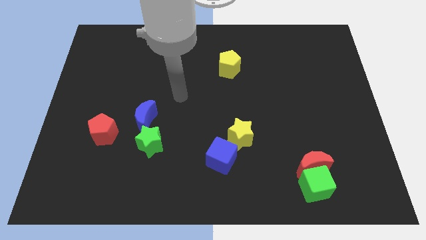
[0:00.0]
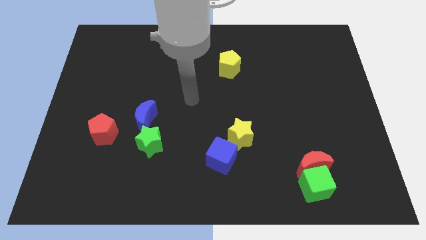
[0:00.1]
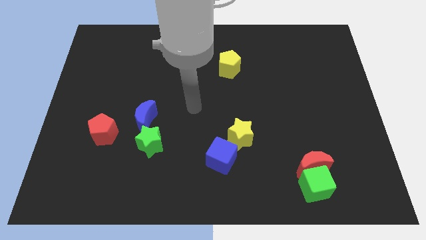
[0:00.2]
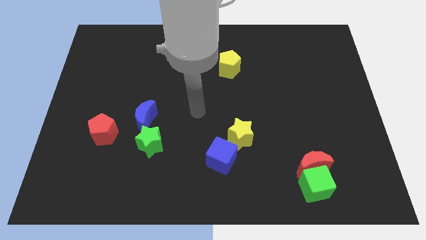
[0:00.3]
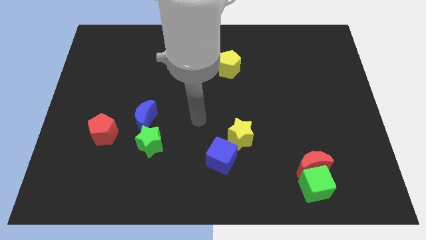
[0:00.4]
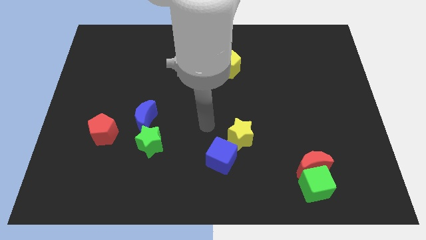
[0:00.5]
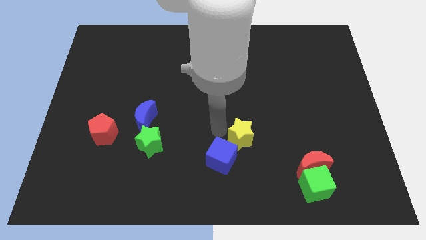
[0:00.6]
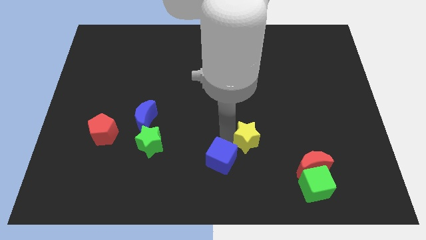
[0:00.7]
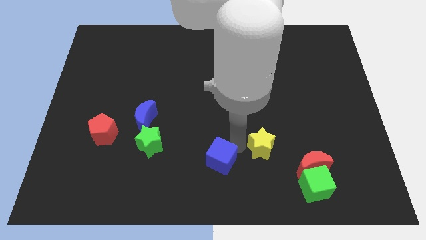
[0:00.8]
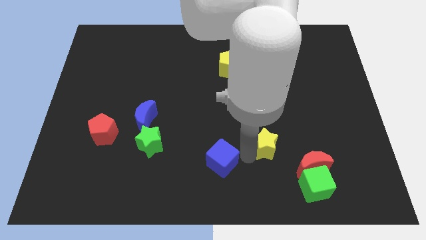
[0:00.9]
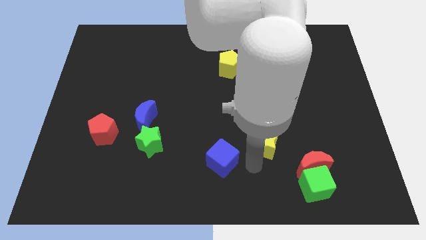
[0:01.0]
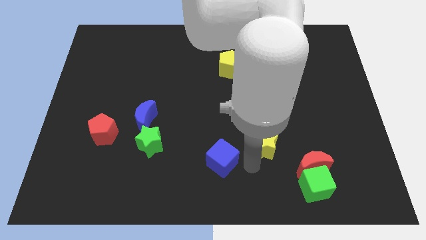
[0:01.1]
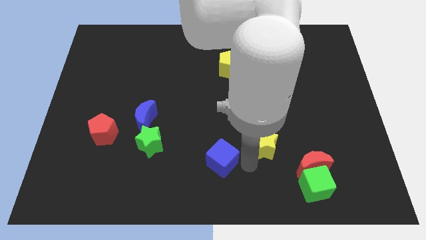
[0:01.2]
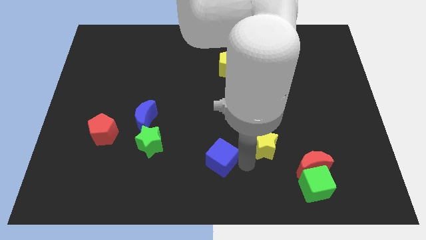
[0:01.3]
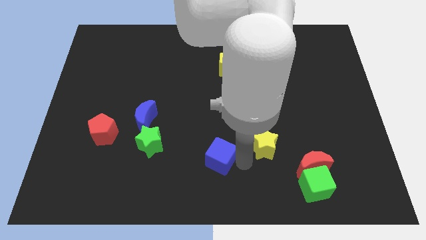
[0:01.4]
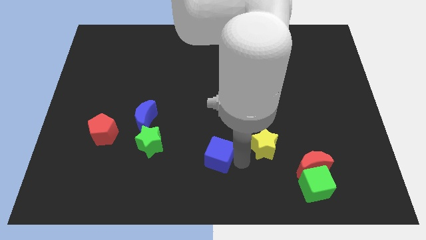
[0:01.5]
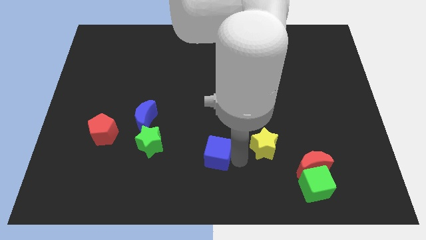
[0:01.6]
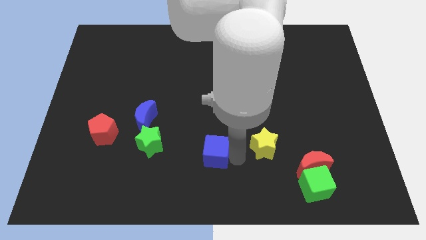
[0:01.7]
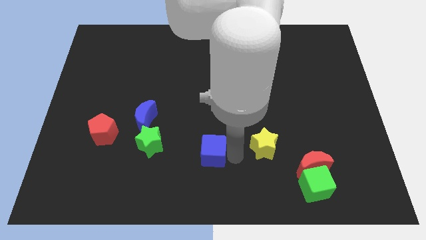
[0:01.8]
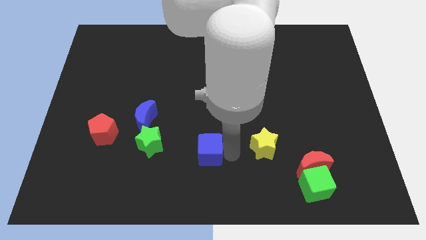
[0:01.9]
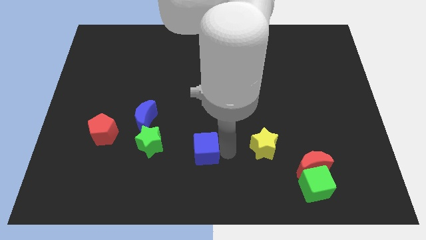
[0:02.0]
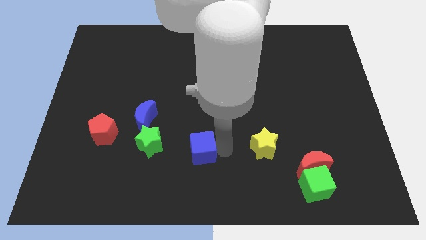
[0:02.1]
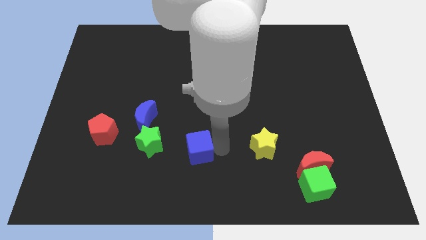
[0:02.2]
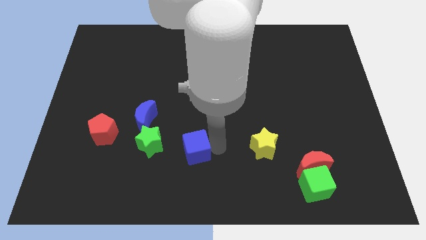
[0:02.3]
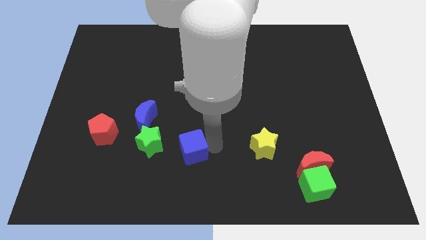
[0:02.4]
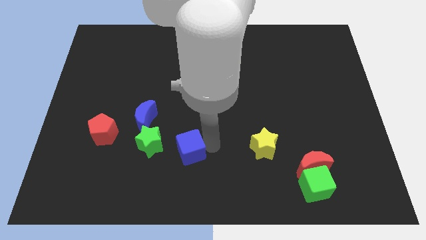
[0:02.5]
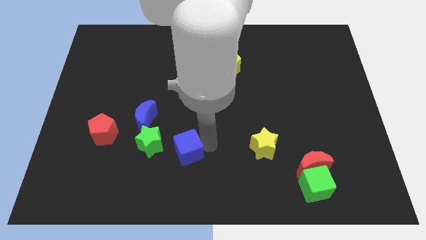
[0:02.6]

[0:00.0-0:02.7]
slightly push the blue cube to the left

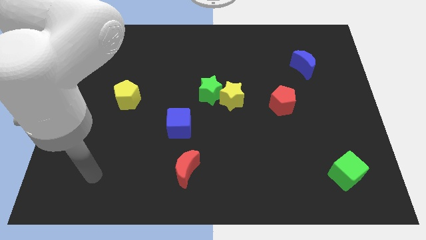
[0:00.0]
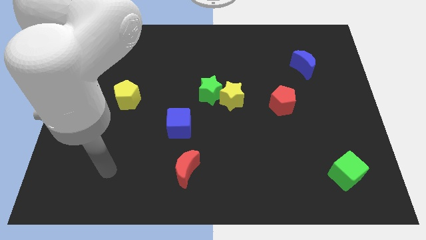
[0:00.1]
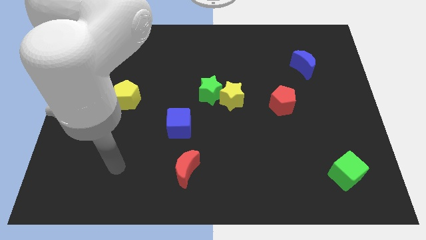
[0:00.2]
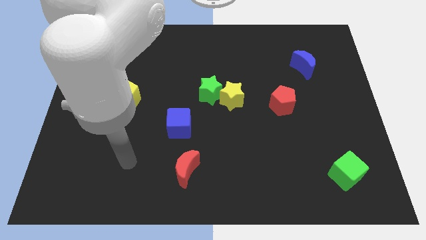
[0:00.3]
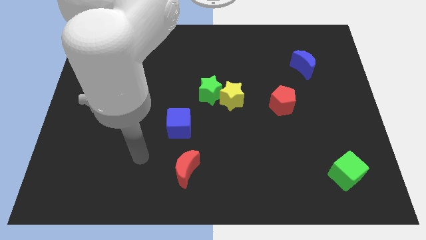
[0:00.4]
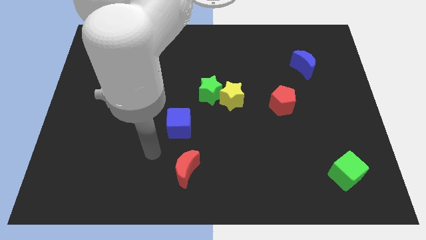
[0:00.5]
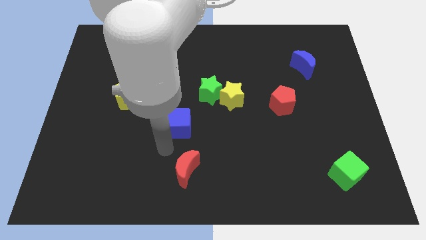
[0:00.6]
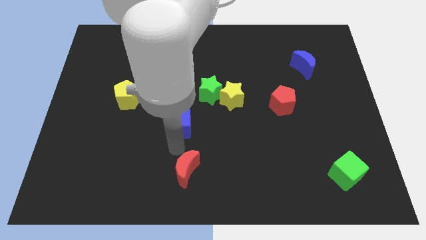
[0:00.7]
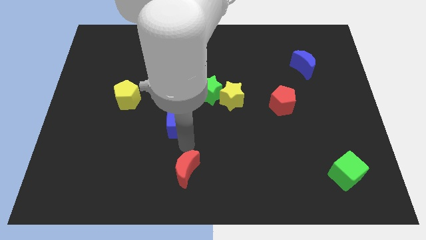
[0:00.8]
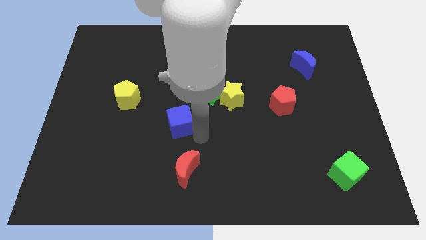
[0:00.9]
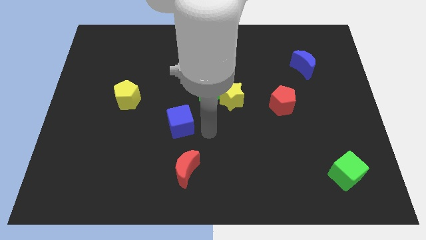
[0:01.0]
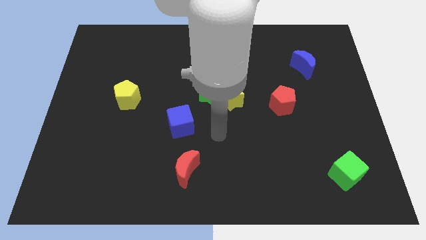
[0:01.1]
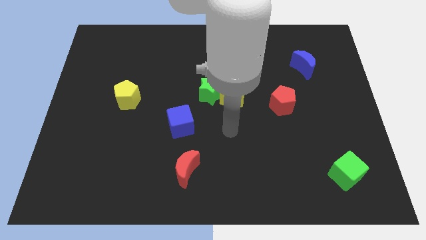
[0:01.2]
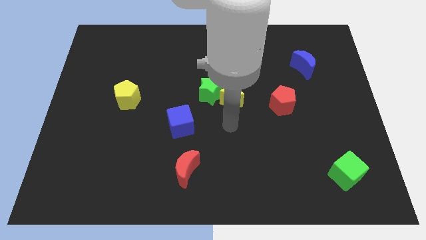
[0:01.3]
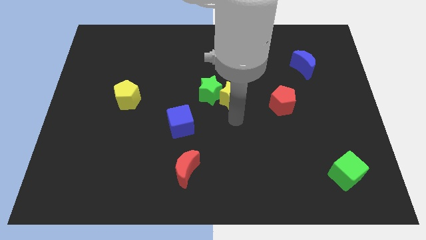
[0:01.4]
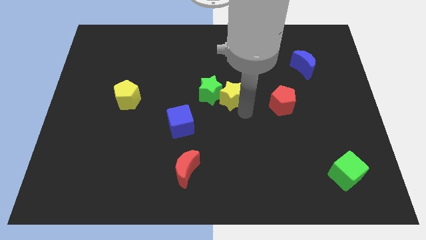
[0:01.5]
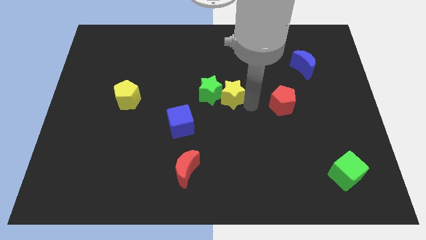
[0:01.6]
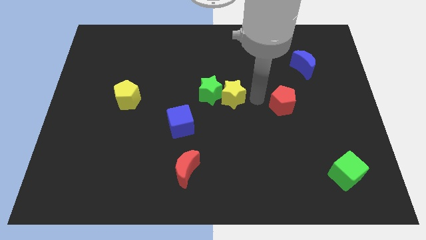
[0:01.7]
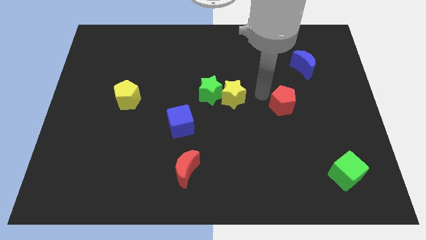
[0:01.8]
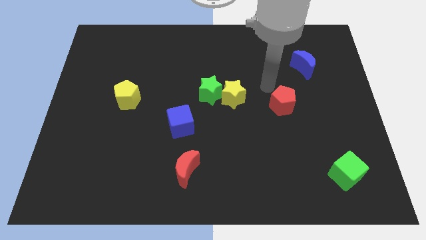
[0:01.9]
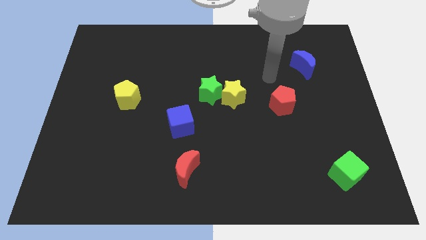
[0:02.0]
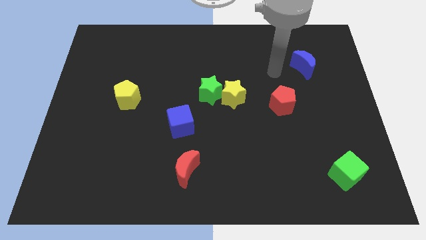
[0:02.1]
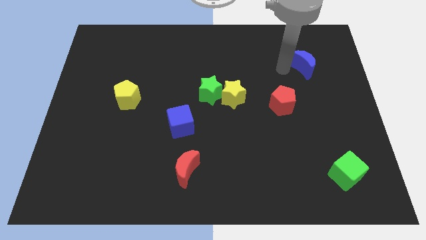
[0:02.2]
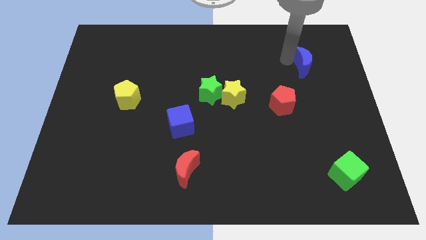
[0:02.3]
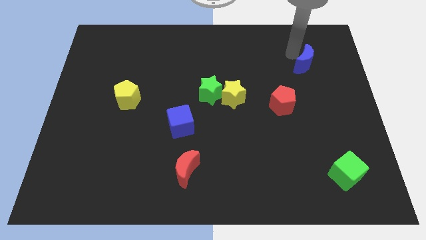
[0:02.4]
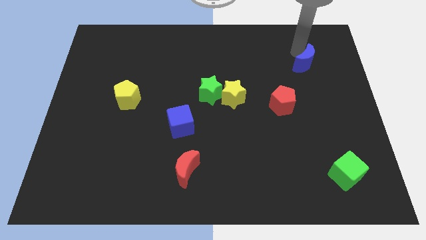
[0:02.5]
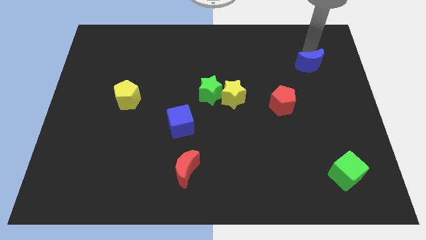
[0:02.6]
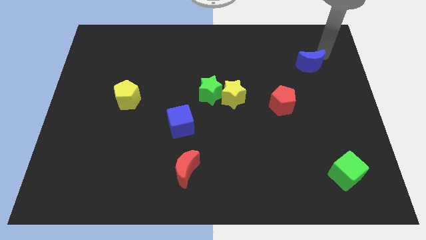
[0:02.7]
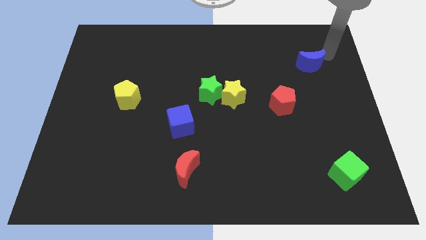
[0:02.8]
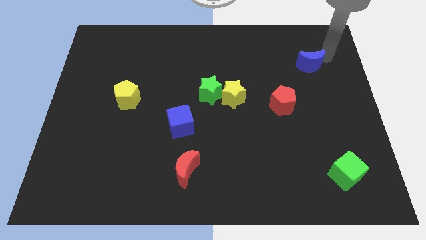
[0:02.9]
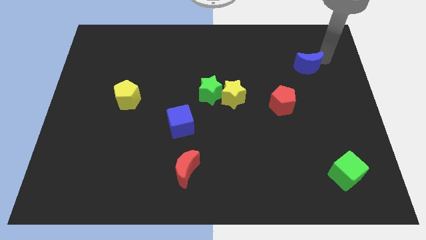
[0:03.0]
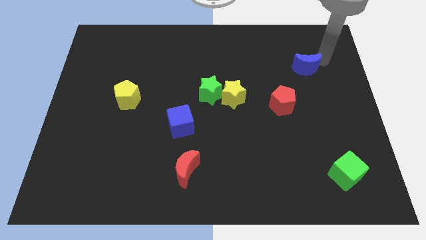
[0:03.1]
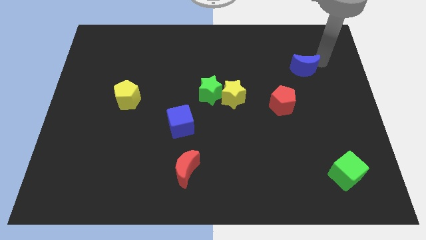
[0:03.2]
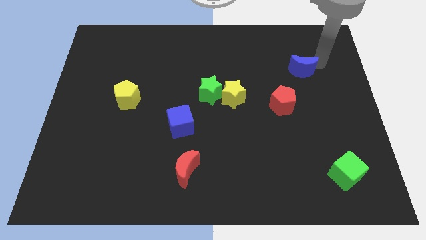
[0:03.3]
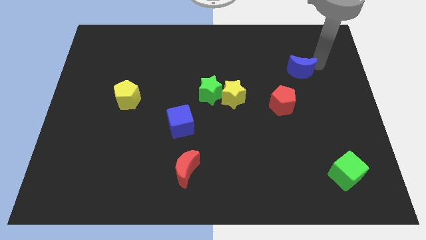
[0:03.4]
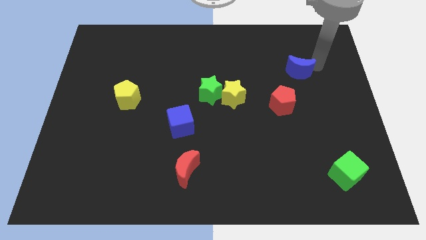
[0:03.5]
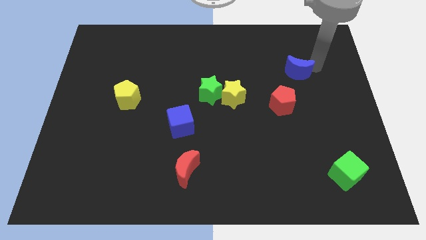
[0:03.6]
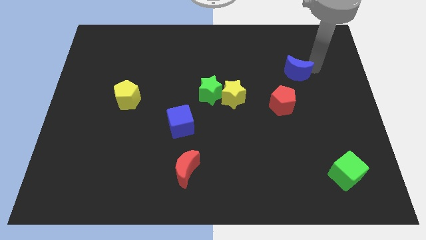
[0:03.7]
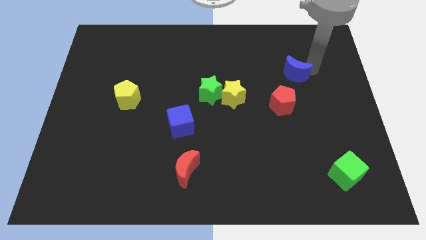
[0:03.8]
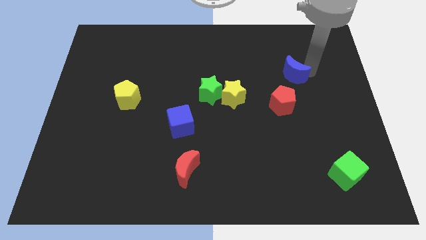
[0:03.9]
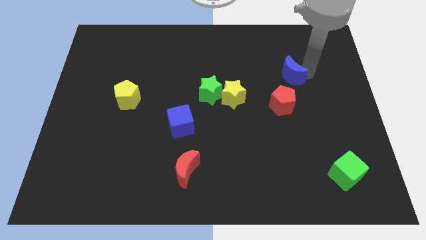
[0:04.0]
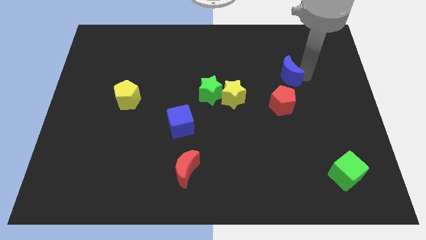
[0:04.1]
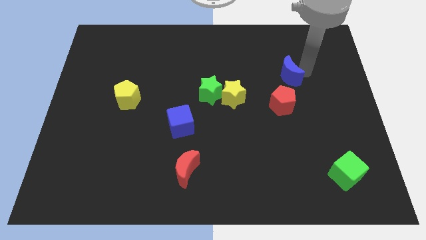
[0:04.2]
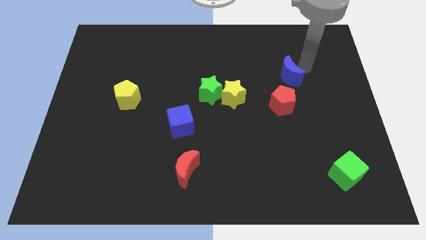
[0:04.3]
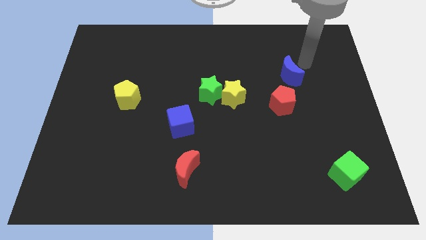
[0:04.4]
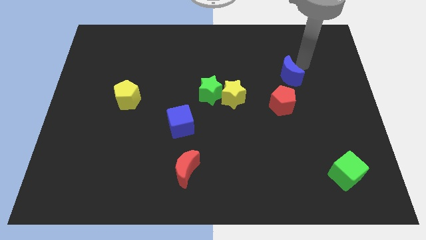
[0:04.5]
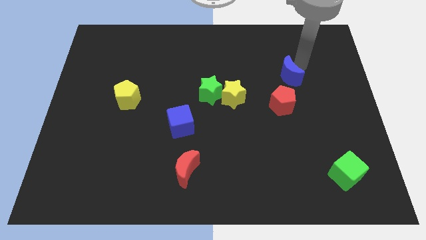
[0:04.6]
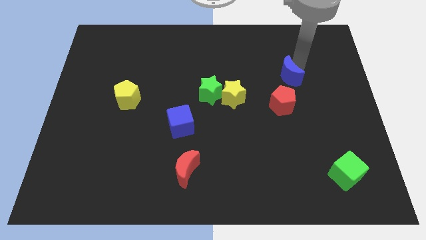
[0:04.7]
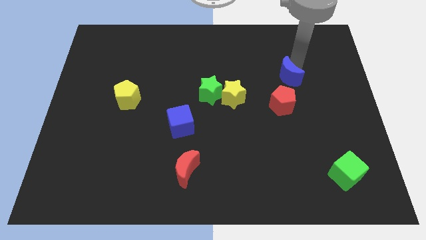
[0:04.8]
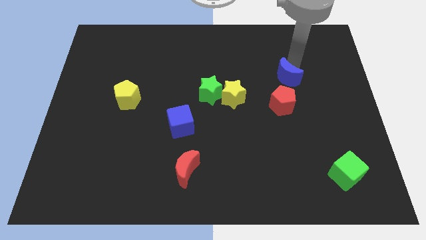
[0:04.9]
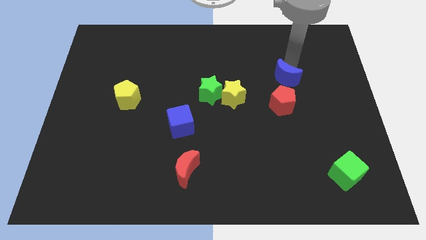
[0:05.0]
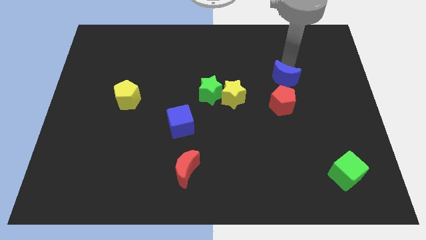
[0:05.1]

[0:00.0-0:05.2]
slightly move the blue moon down and left diagonally

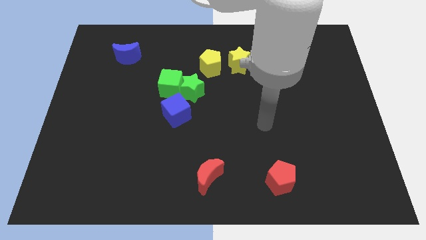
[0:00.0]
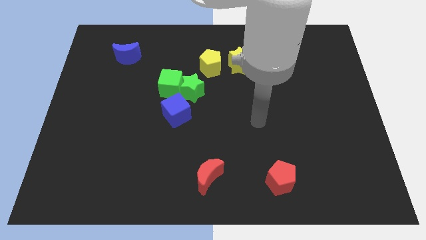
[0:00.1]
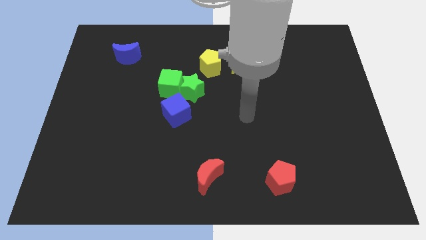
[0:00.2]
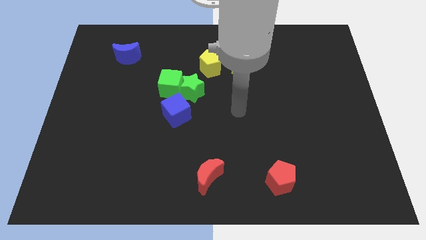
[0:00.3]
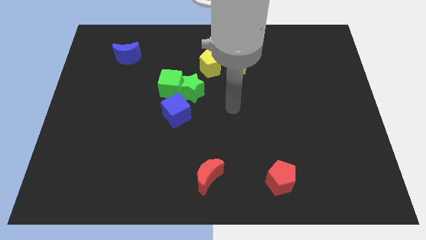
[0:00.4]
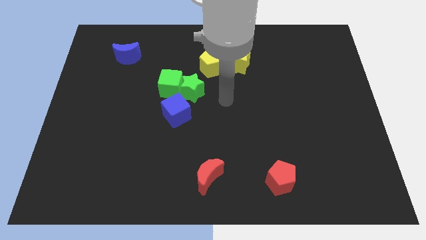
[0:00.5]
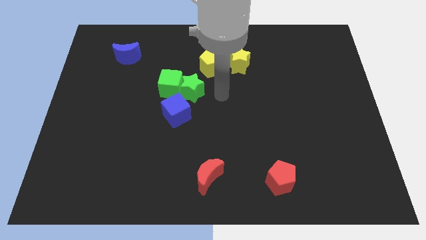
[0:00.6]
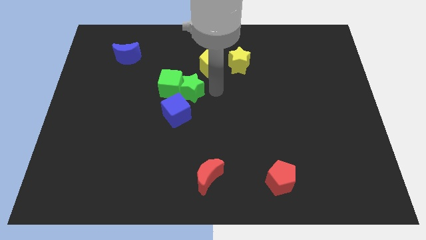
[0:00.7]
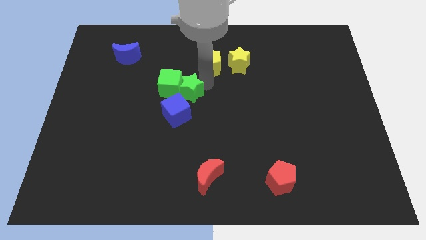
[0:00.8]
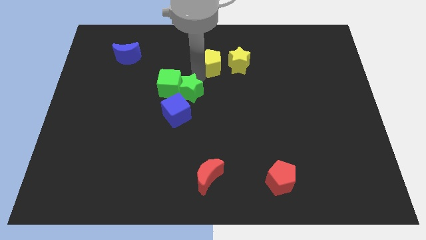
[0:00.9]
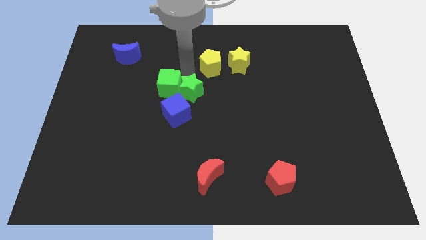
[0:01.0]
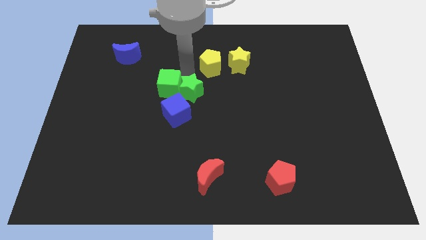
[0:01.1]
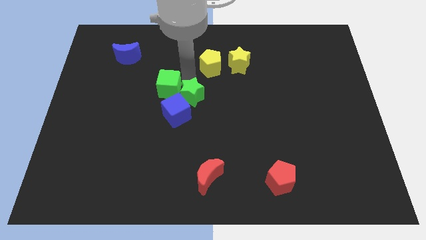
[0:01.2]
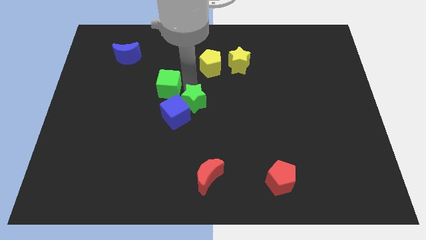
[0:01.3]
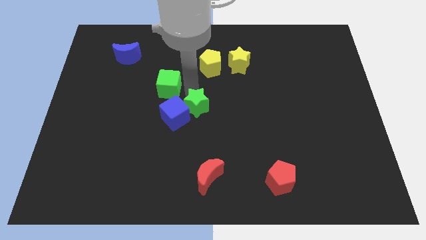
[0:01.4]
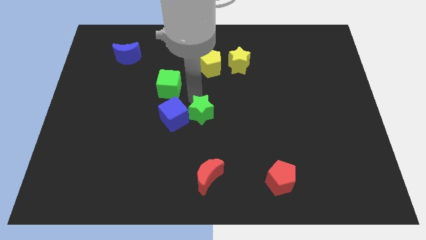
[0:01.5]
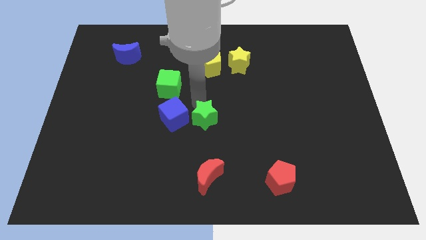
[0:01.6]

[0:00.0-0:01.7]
slightly move the green star downwards
